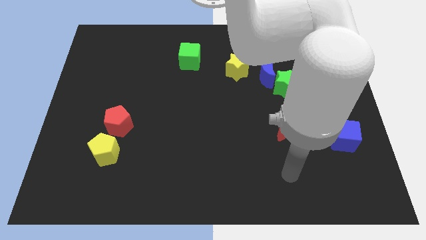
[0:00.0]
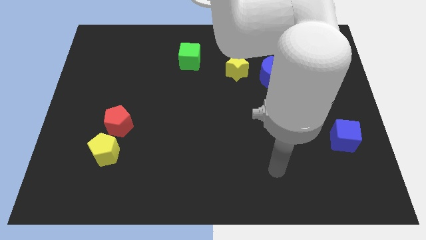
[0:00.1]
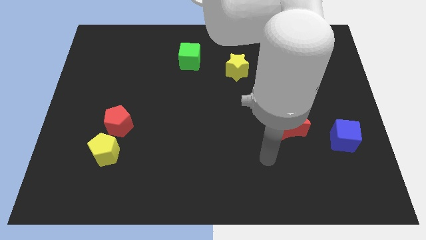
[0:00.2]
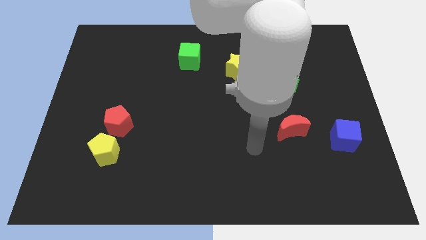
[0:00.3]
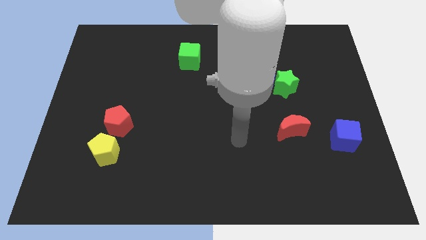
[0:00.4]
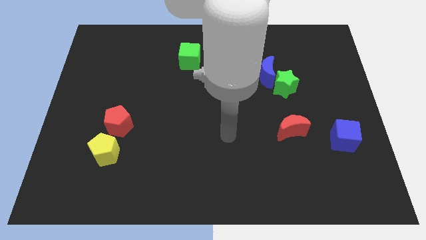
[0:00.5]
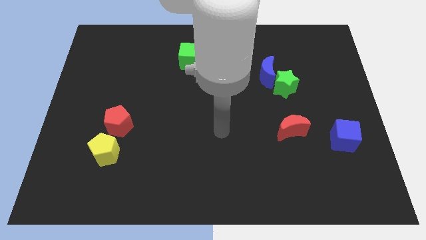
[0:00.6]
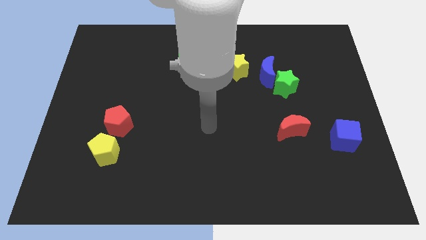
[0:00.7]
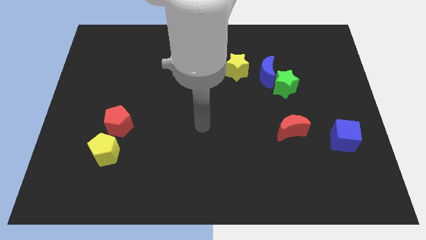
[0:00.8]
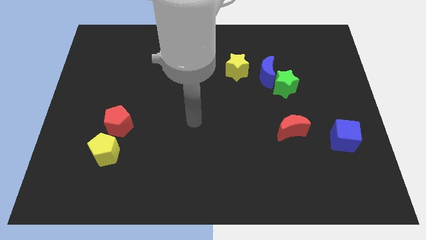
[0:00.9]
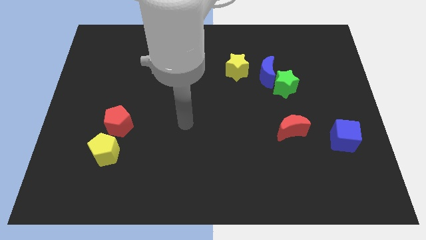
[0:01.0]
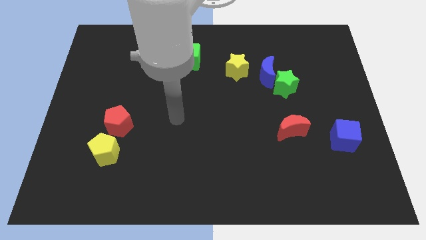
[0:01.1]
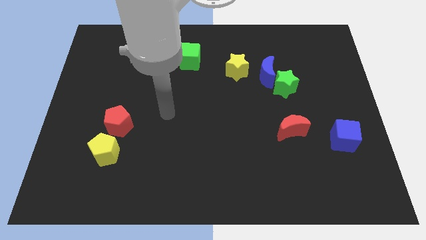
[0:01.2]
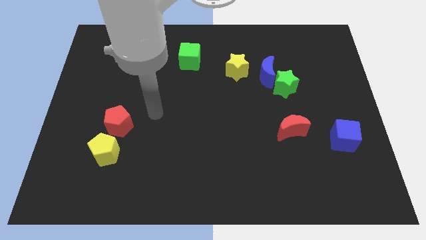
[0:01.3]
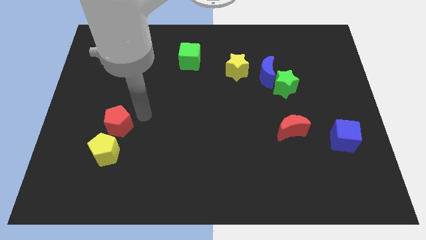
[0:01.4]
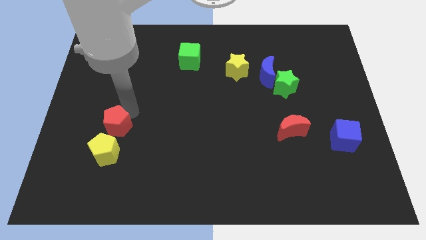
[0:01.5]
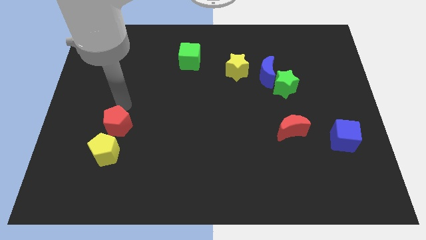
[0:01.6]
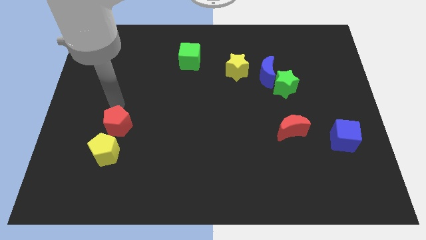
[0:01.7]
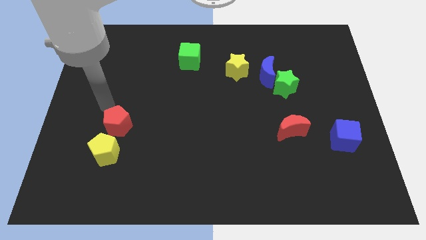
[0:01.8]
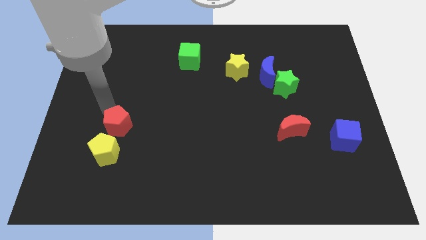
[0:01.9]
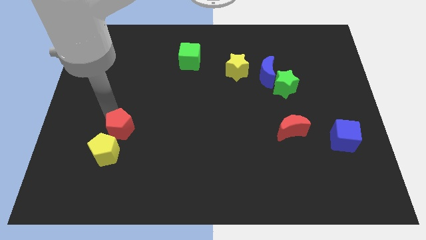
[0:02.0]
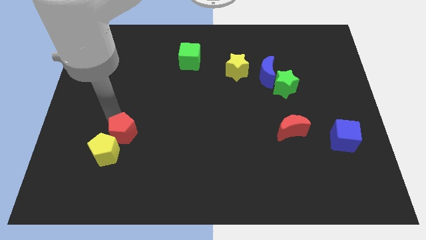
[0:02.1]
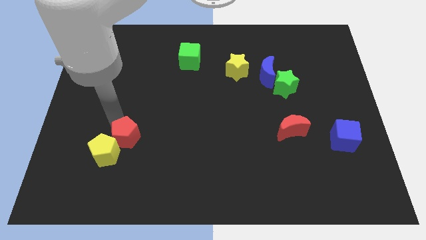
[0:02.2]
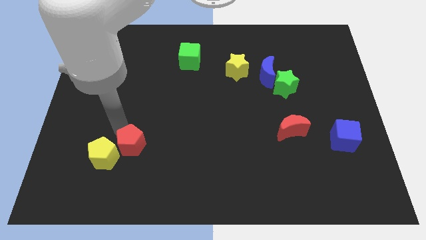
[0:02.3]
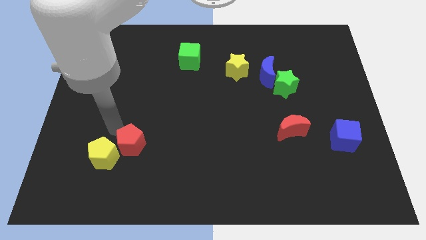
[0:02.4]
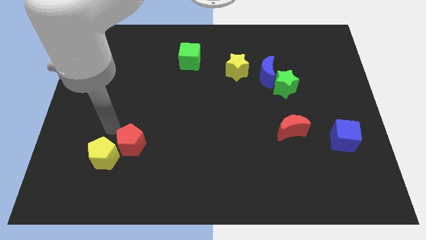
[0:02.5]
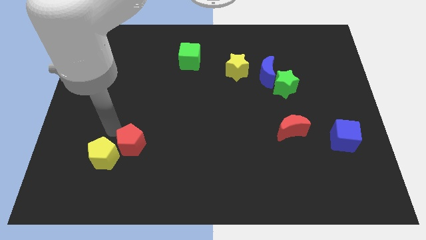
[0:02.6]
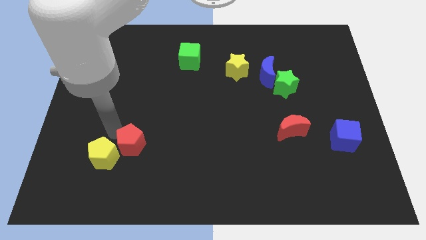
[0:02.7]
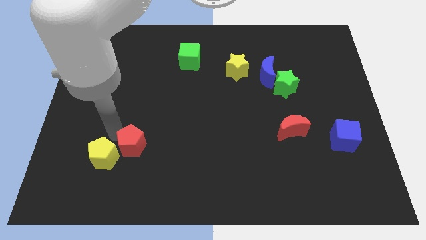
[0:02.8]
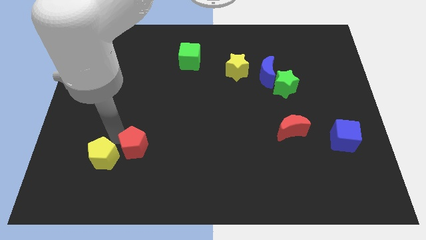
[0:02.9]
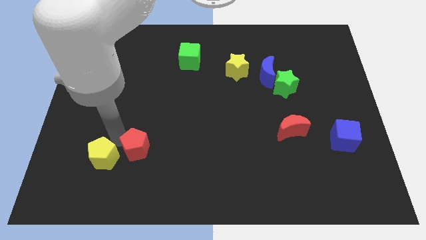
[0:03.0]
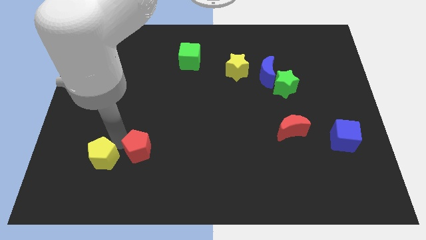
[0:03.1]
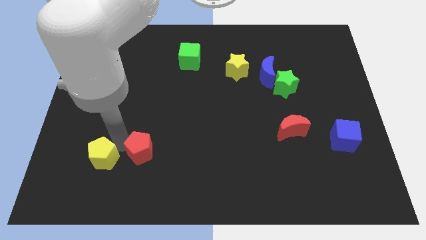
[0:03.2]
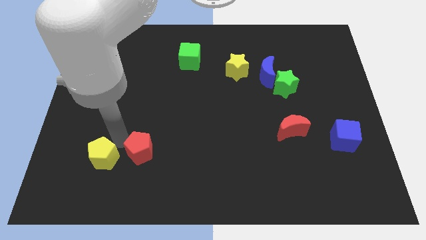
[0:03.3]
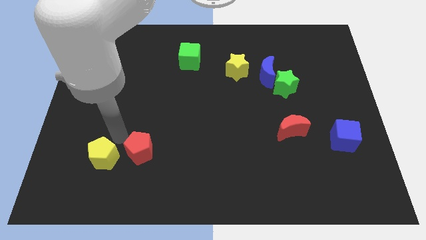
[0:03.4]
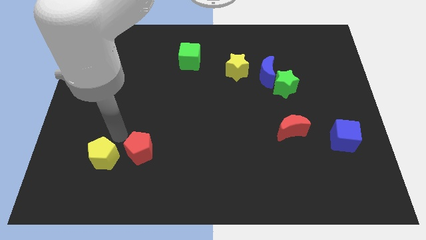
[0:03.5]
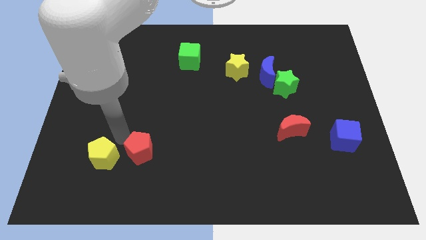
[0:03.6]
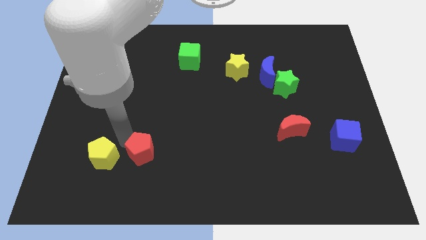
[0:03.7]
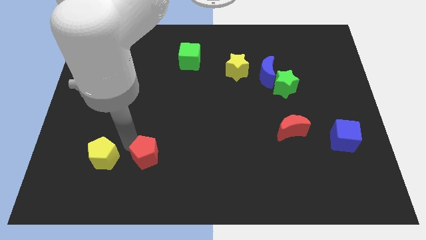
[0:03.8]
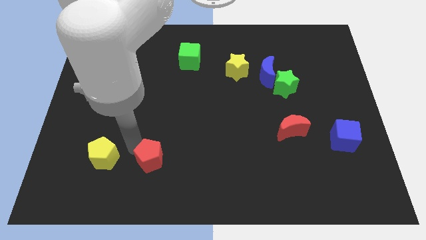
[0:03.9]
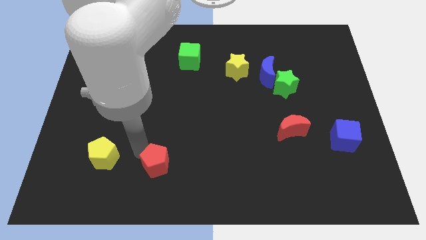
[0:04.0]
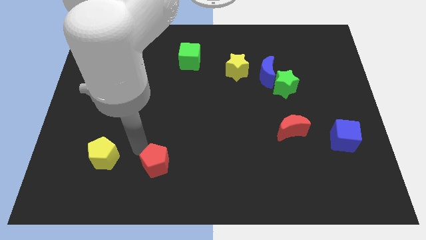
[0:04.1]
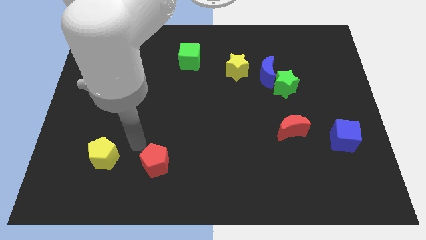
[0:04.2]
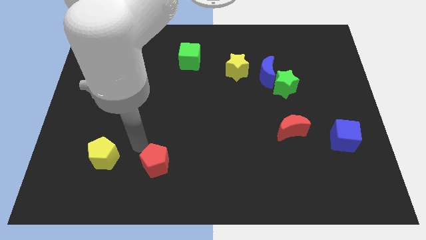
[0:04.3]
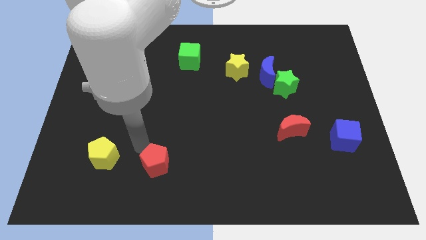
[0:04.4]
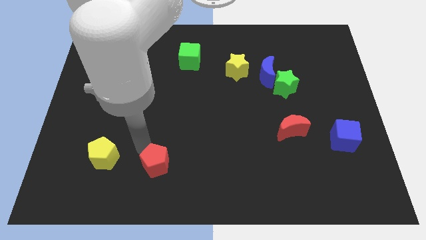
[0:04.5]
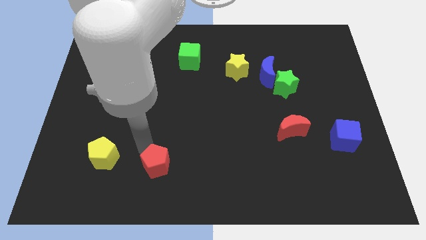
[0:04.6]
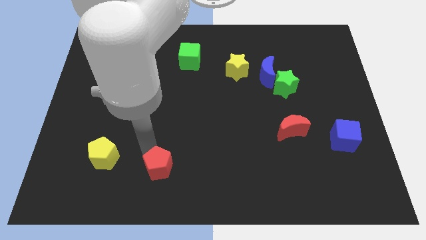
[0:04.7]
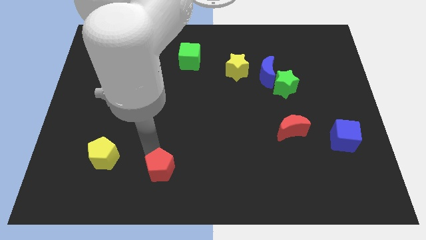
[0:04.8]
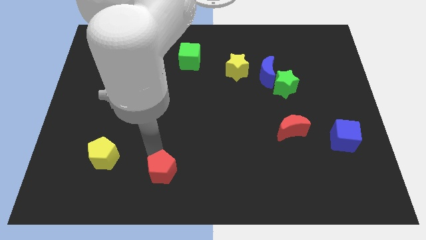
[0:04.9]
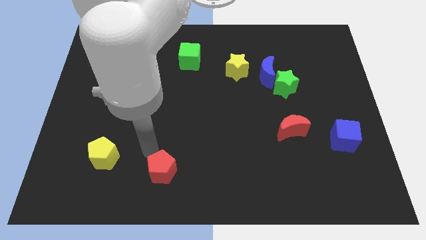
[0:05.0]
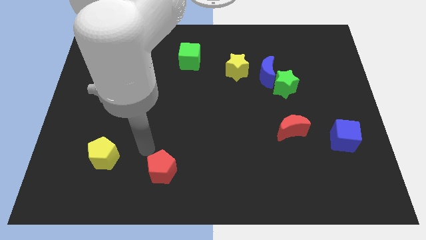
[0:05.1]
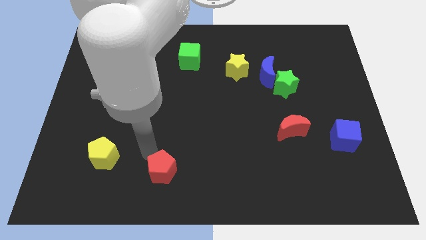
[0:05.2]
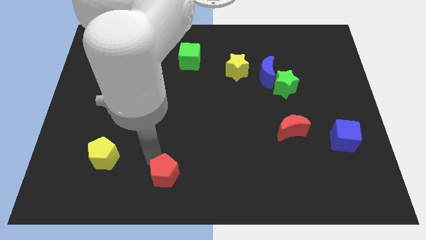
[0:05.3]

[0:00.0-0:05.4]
slide the red pentagon to the bottom side

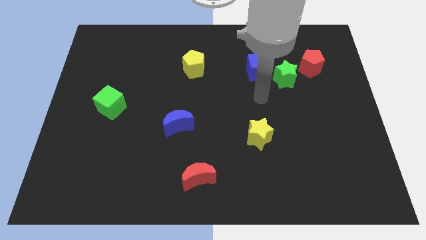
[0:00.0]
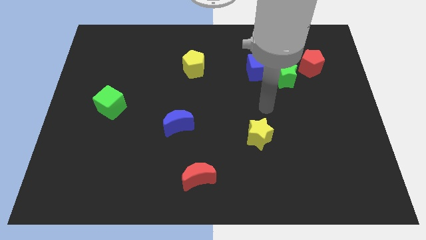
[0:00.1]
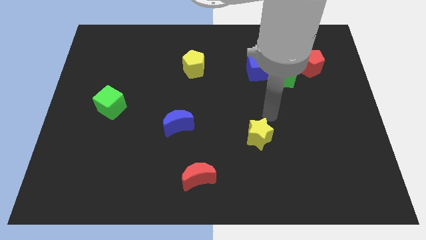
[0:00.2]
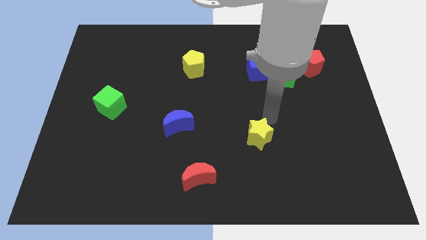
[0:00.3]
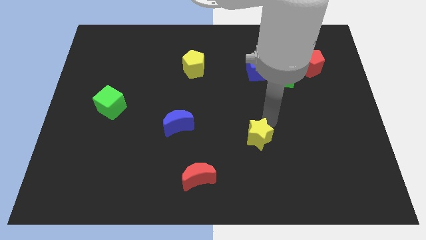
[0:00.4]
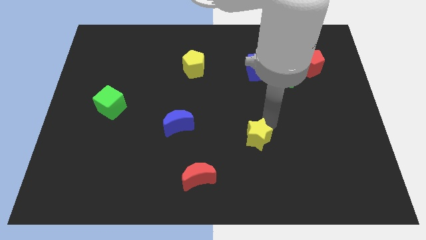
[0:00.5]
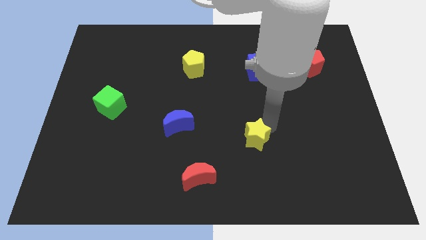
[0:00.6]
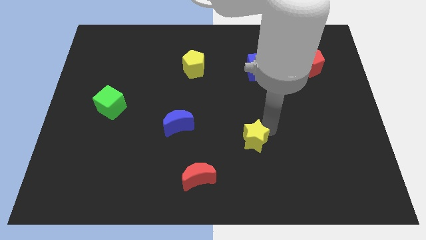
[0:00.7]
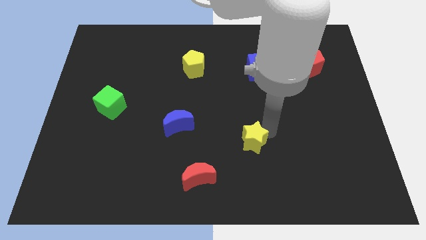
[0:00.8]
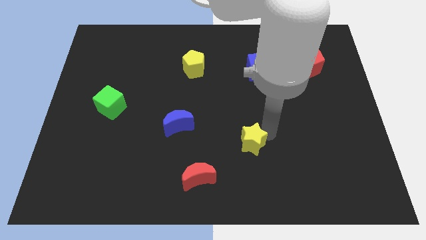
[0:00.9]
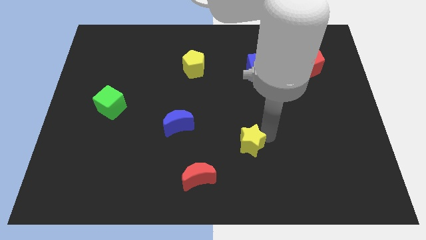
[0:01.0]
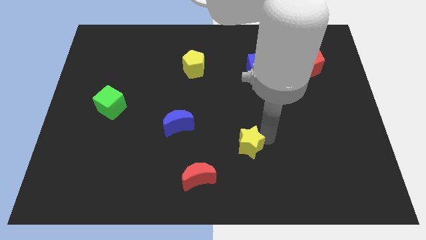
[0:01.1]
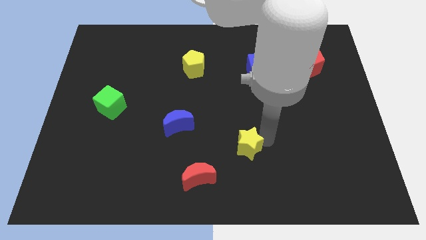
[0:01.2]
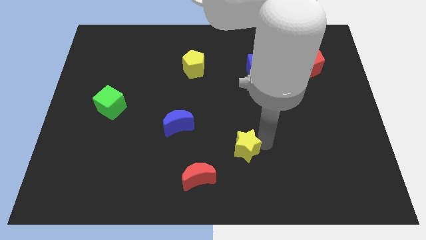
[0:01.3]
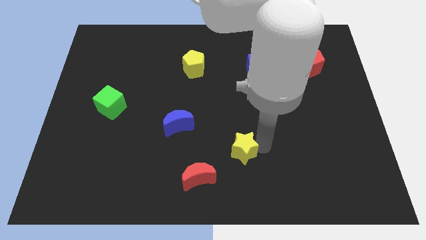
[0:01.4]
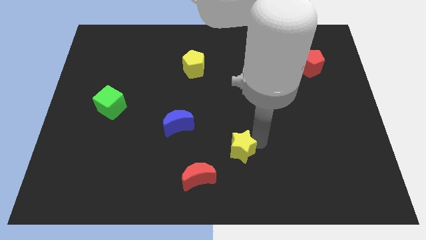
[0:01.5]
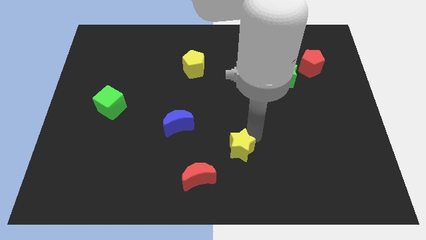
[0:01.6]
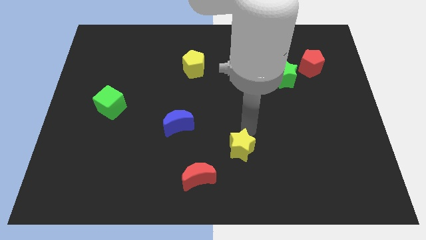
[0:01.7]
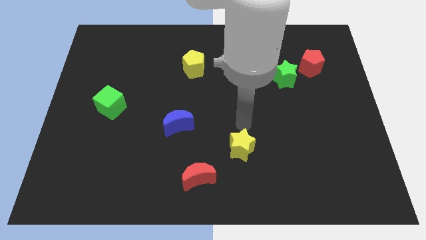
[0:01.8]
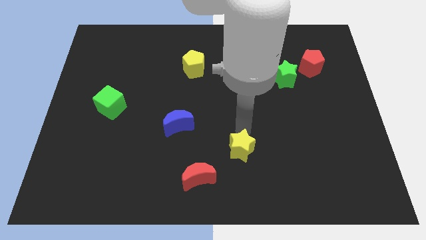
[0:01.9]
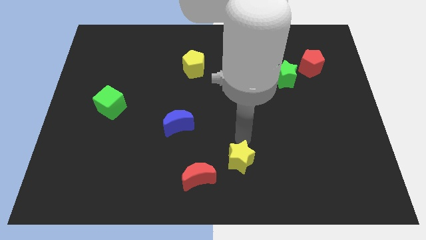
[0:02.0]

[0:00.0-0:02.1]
slide the yellow star to the bottom side
